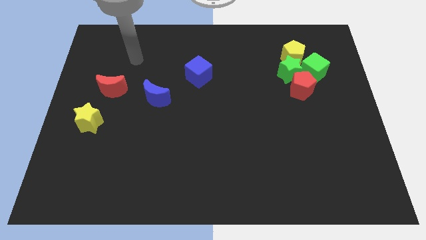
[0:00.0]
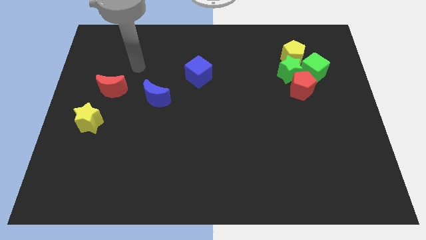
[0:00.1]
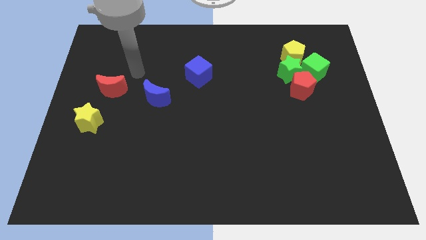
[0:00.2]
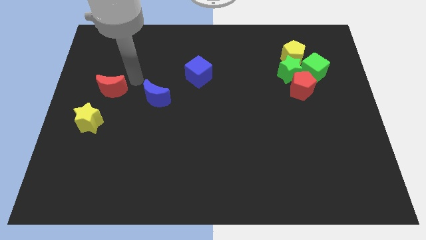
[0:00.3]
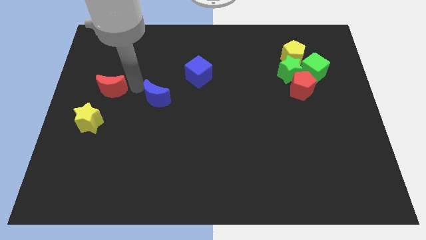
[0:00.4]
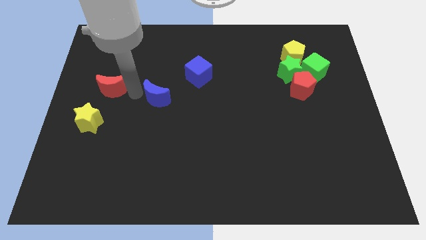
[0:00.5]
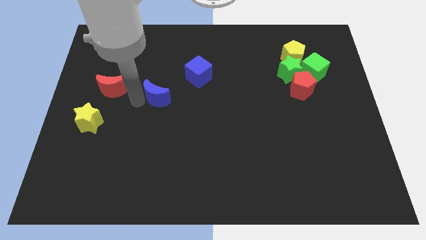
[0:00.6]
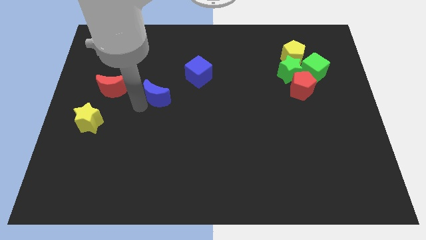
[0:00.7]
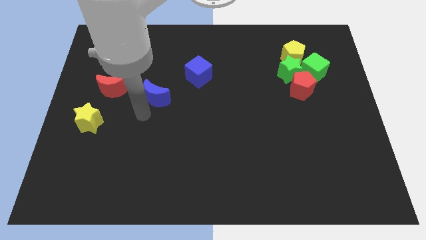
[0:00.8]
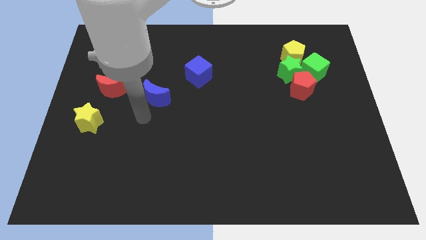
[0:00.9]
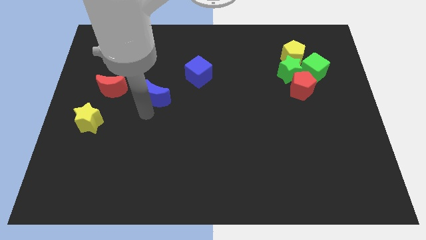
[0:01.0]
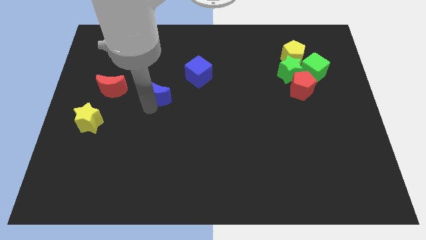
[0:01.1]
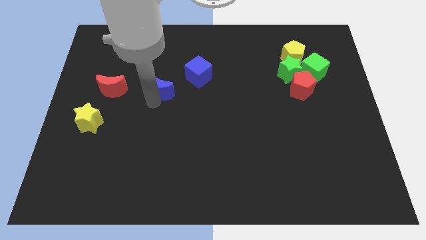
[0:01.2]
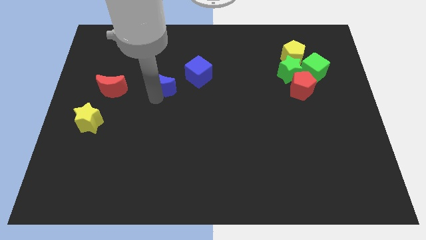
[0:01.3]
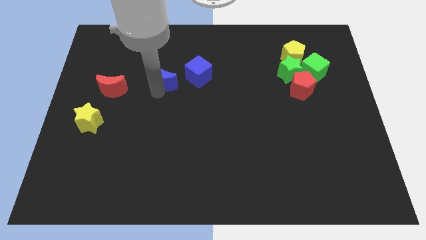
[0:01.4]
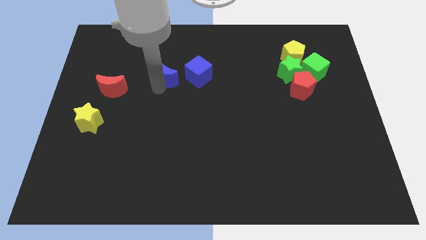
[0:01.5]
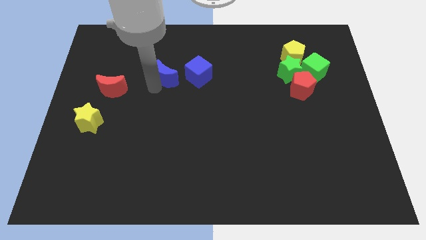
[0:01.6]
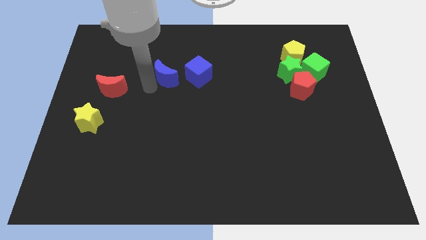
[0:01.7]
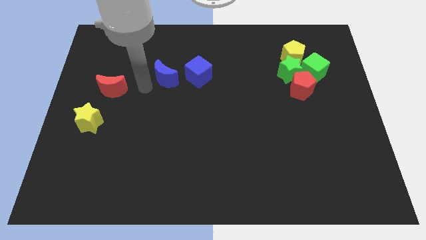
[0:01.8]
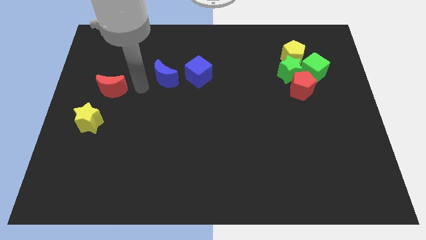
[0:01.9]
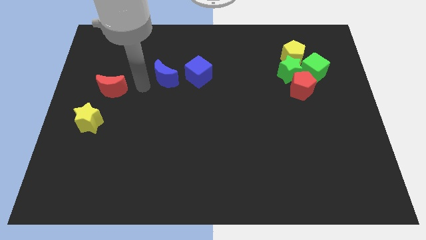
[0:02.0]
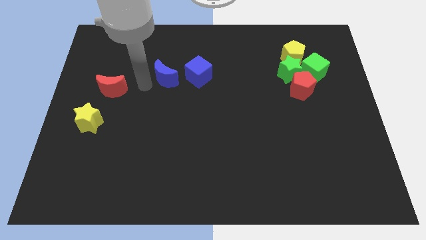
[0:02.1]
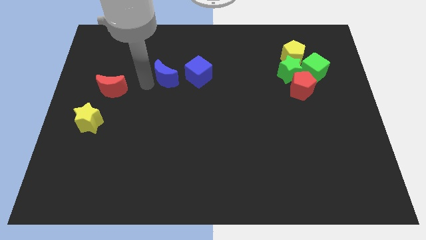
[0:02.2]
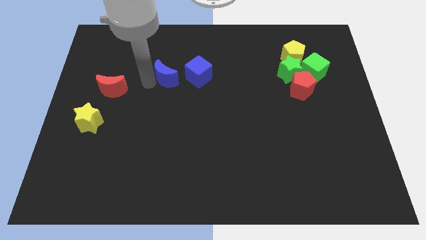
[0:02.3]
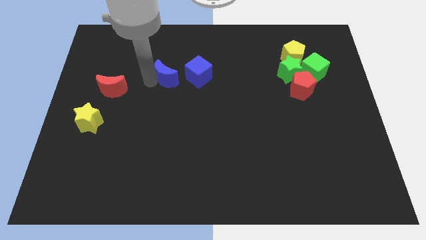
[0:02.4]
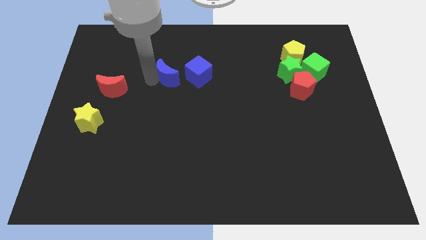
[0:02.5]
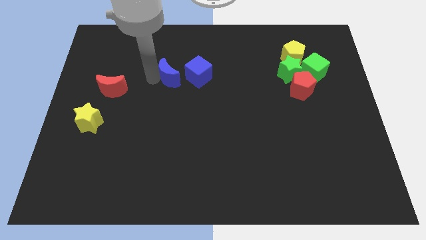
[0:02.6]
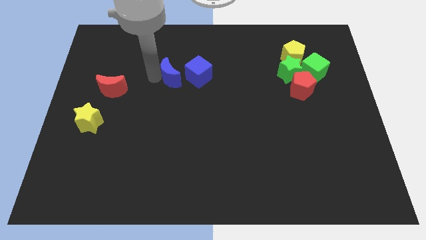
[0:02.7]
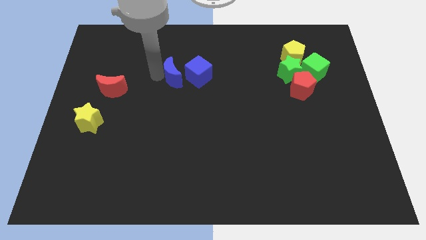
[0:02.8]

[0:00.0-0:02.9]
move the blue moon up and right slightly

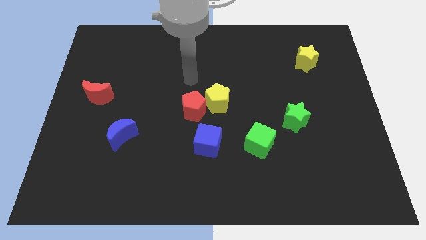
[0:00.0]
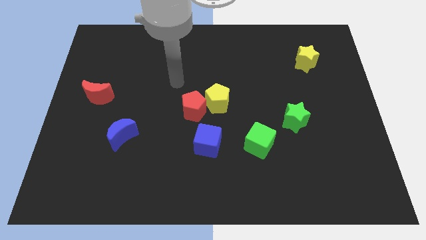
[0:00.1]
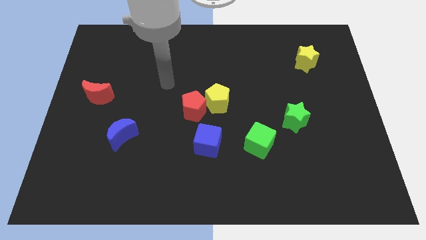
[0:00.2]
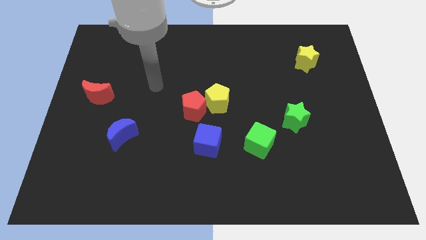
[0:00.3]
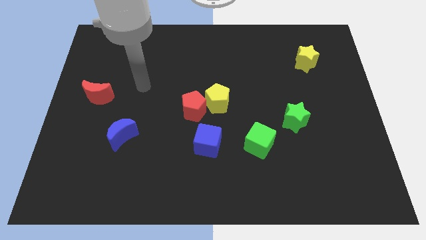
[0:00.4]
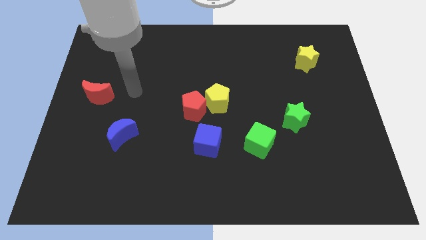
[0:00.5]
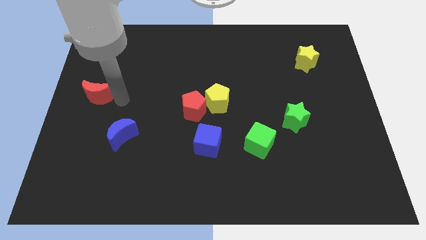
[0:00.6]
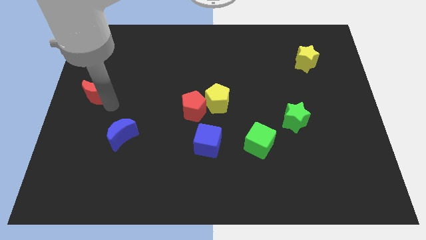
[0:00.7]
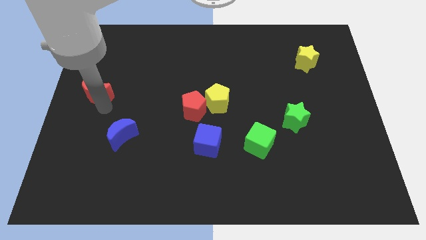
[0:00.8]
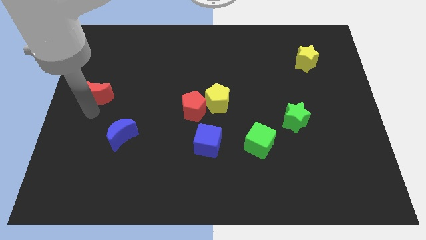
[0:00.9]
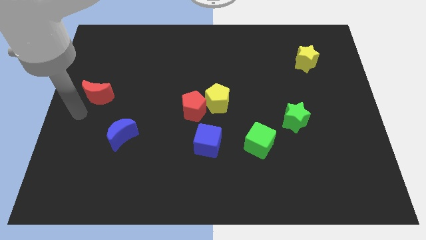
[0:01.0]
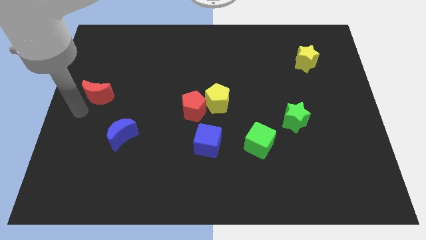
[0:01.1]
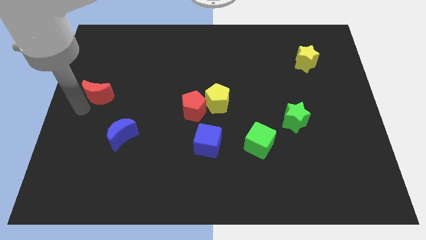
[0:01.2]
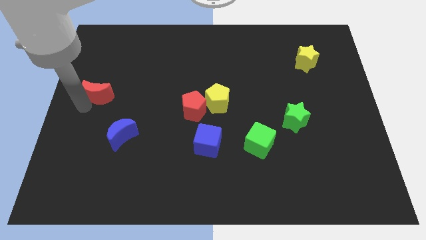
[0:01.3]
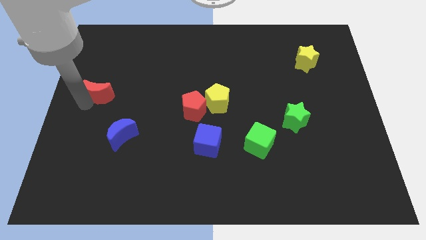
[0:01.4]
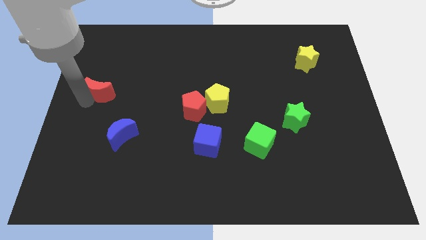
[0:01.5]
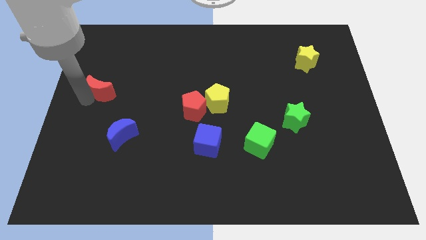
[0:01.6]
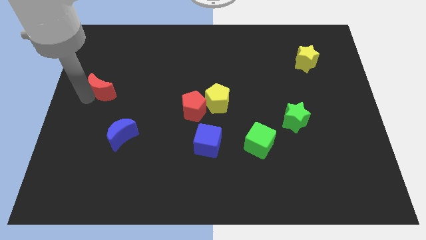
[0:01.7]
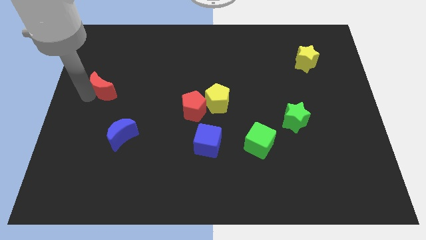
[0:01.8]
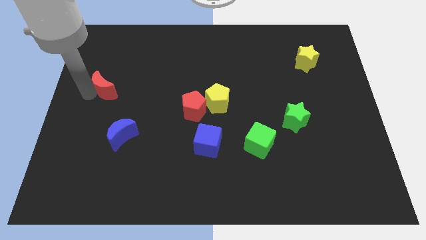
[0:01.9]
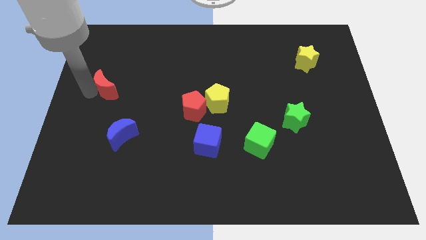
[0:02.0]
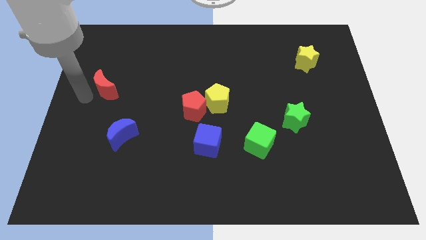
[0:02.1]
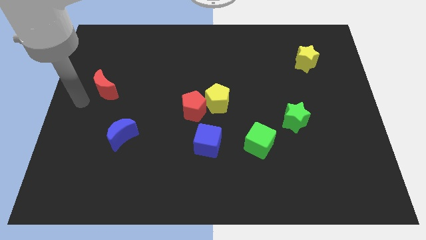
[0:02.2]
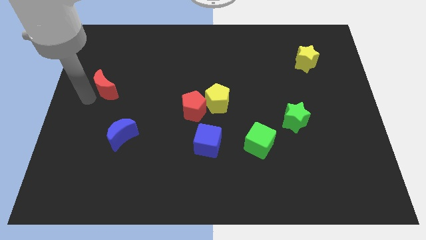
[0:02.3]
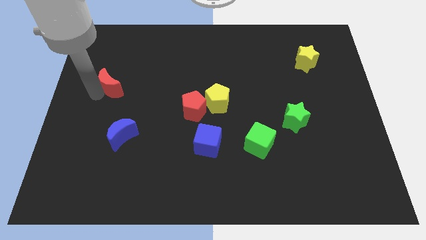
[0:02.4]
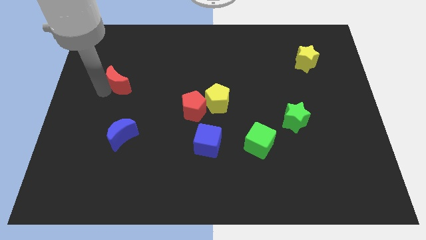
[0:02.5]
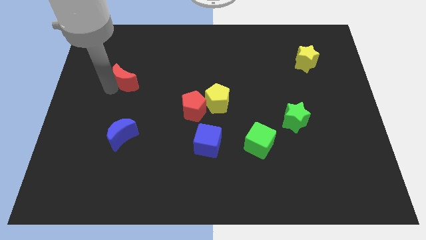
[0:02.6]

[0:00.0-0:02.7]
slightly slide the red moon diagonally up and right

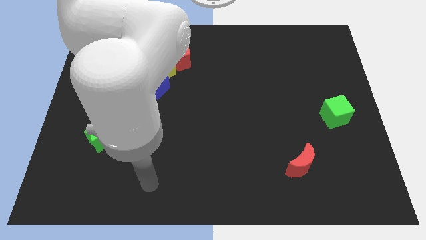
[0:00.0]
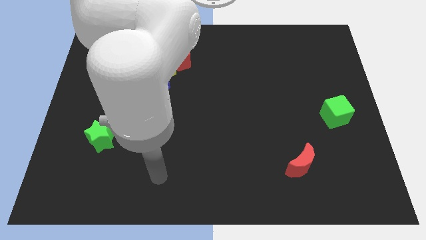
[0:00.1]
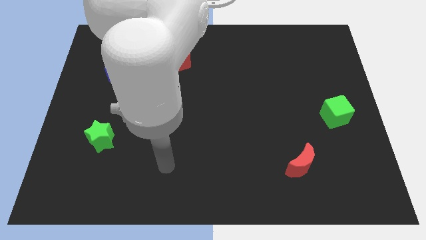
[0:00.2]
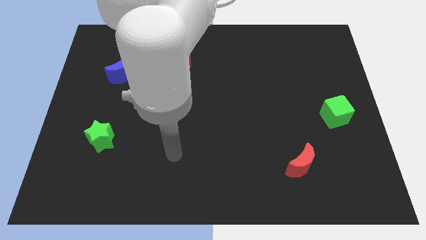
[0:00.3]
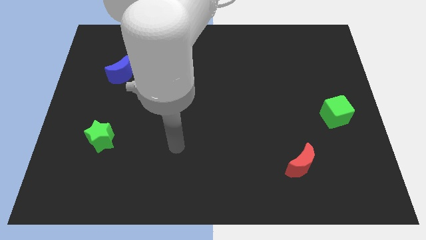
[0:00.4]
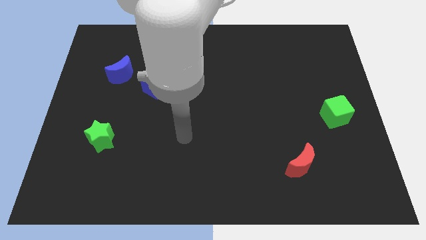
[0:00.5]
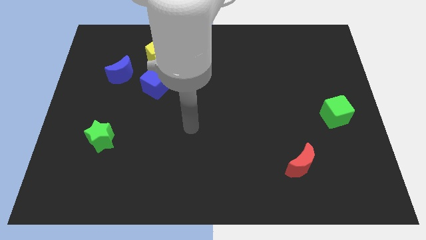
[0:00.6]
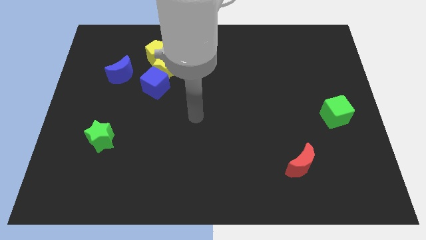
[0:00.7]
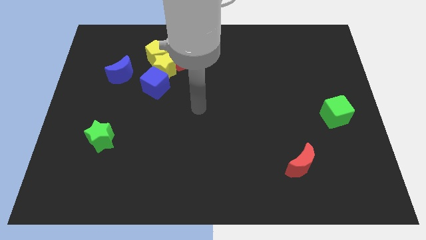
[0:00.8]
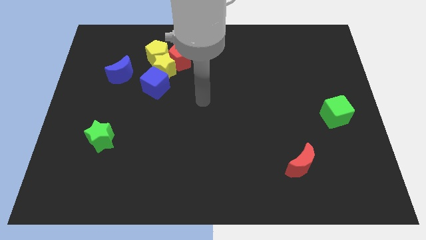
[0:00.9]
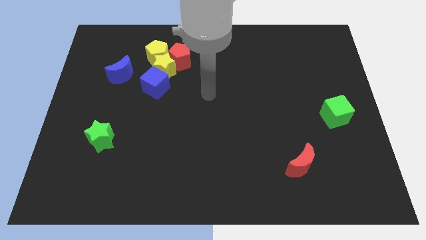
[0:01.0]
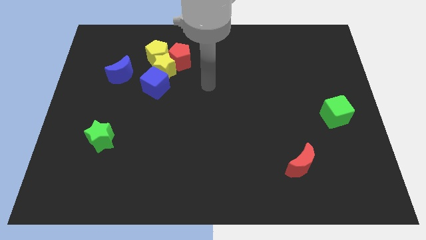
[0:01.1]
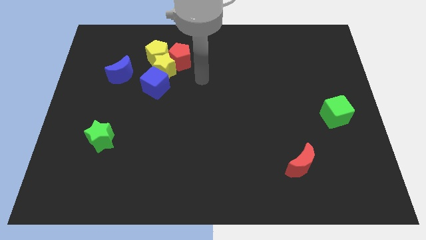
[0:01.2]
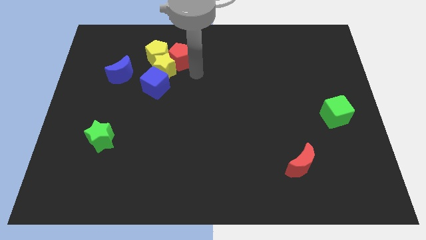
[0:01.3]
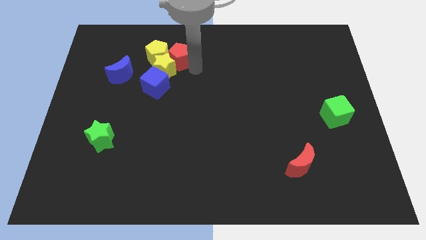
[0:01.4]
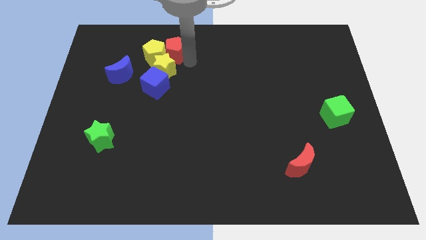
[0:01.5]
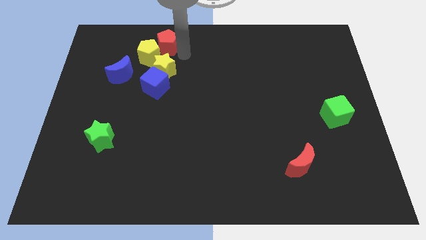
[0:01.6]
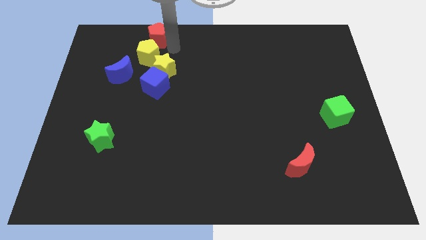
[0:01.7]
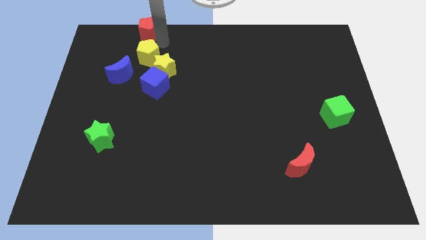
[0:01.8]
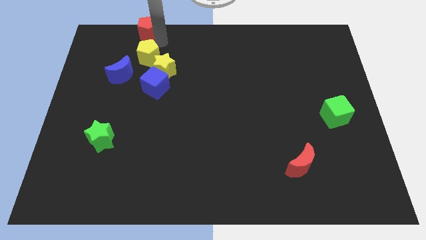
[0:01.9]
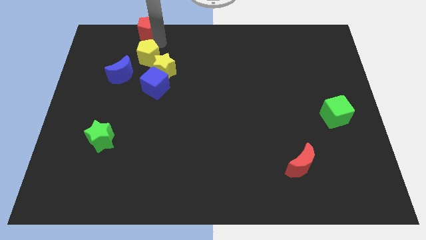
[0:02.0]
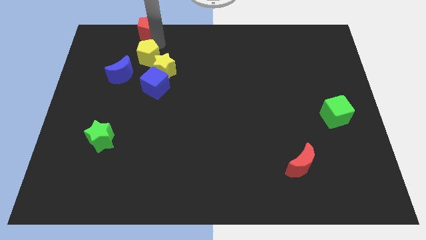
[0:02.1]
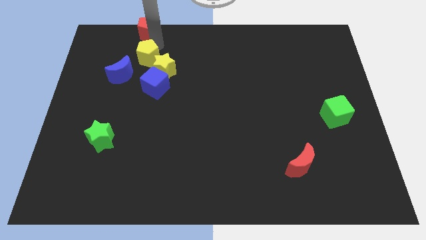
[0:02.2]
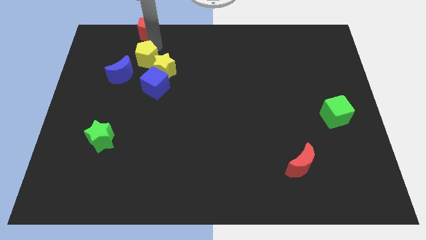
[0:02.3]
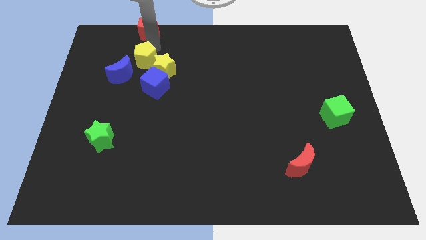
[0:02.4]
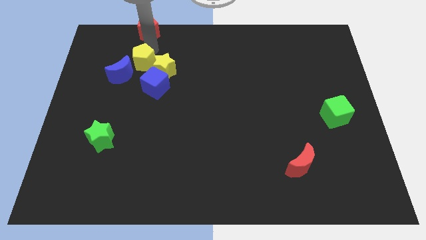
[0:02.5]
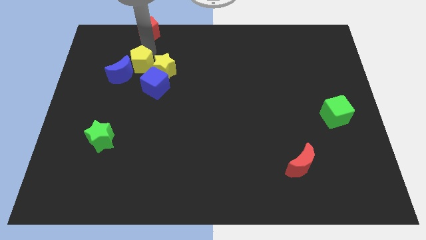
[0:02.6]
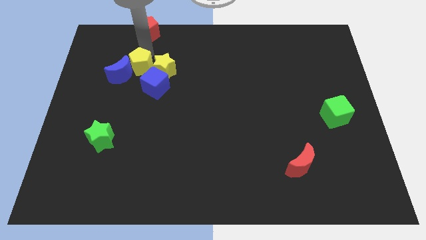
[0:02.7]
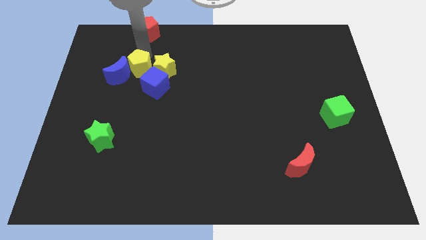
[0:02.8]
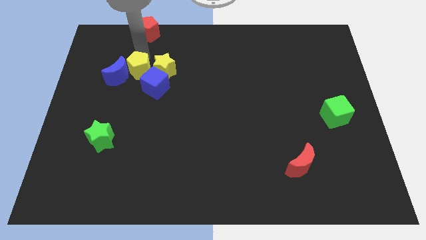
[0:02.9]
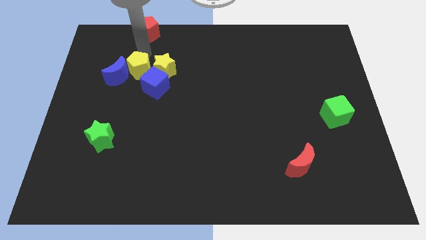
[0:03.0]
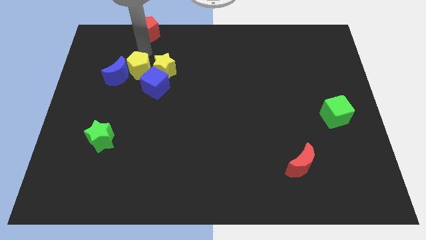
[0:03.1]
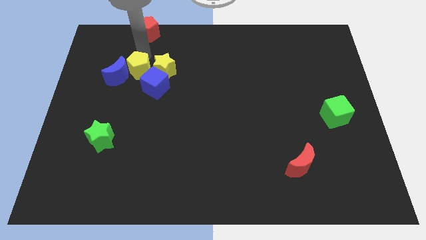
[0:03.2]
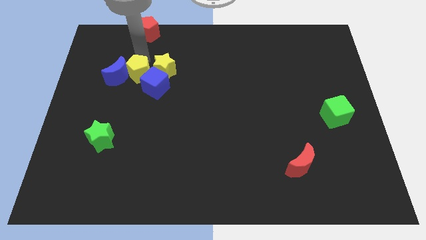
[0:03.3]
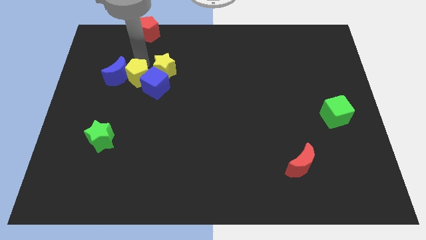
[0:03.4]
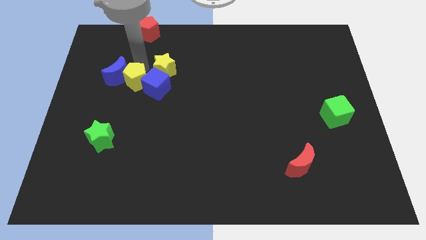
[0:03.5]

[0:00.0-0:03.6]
slightly move the yellow pentagon downwards
